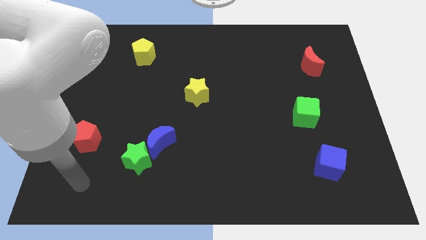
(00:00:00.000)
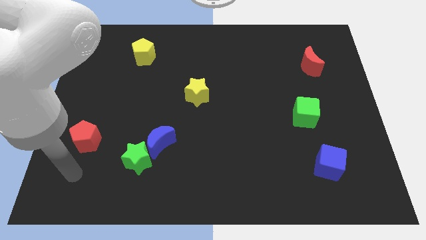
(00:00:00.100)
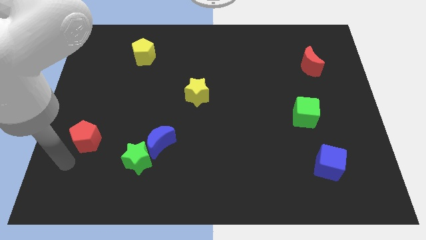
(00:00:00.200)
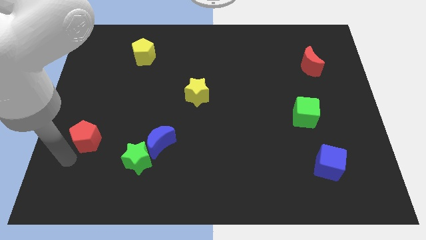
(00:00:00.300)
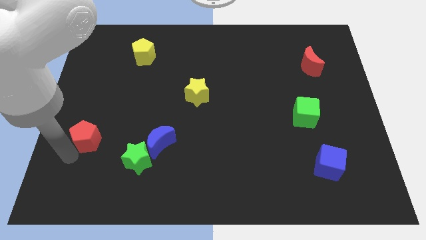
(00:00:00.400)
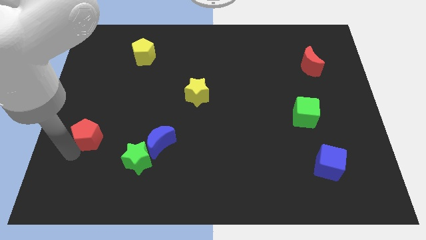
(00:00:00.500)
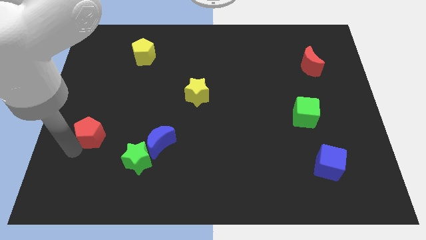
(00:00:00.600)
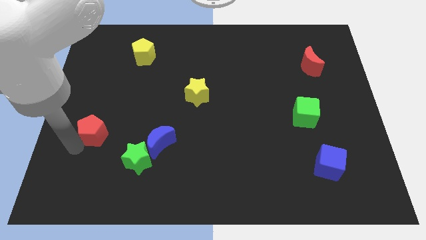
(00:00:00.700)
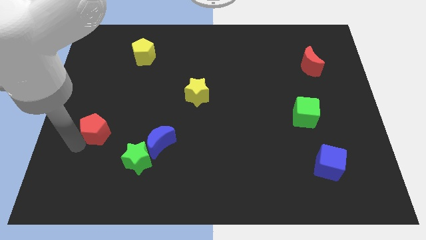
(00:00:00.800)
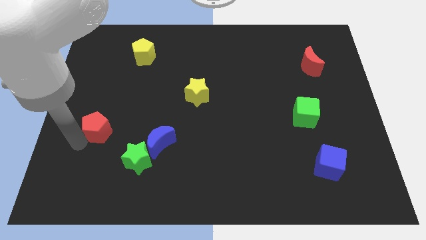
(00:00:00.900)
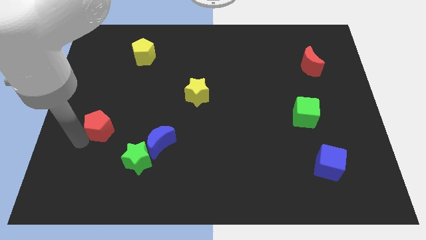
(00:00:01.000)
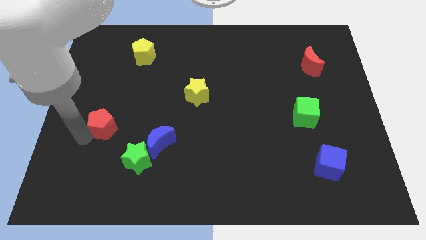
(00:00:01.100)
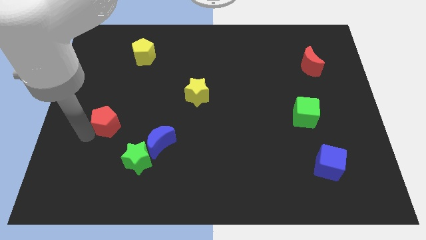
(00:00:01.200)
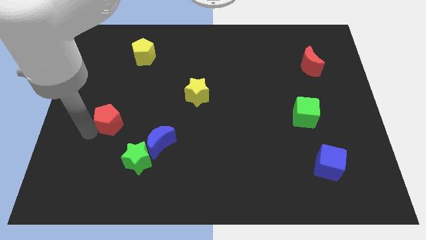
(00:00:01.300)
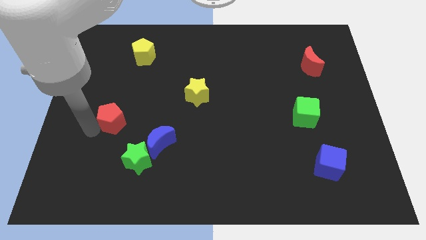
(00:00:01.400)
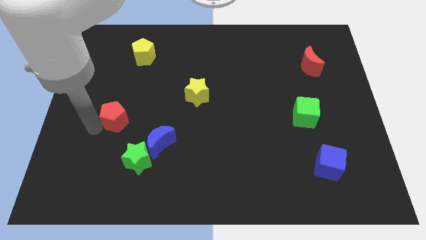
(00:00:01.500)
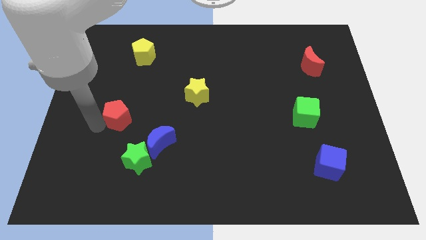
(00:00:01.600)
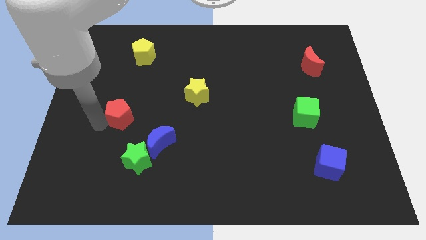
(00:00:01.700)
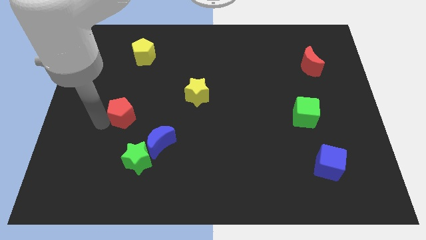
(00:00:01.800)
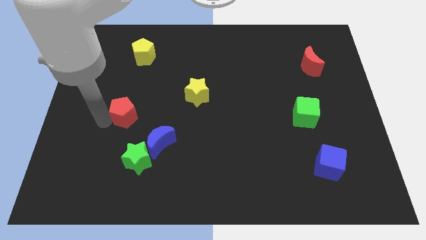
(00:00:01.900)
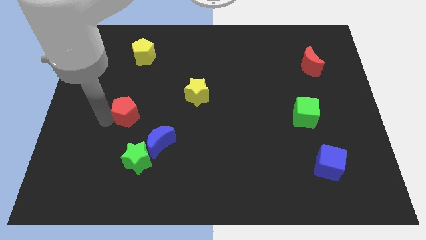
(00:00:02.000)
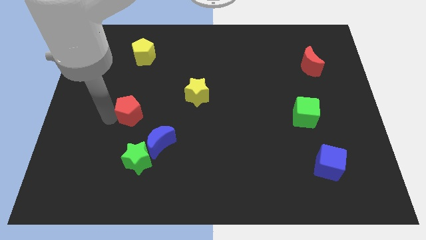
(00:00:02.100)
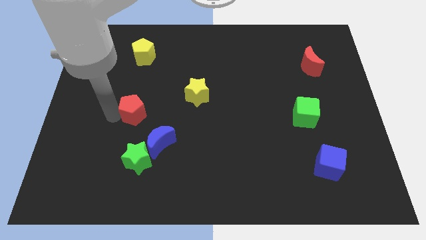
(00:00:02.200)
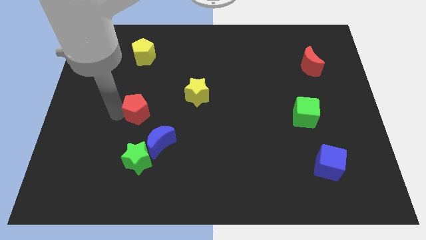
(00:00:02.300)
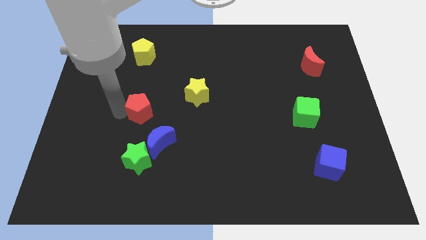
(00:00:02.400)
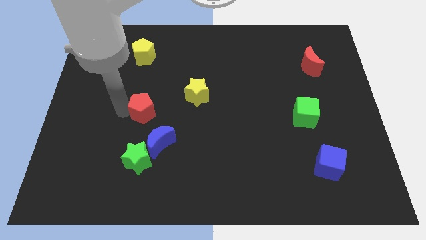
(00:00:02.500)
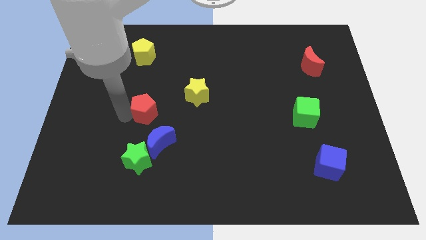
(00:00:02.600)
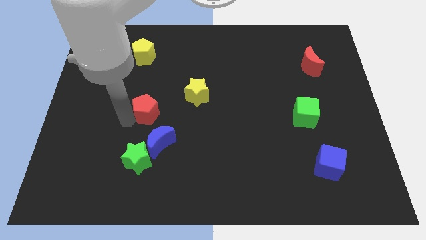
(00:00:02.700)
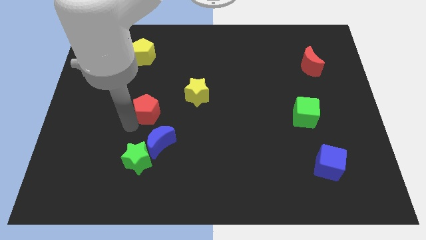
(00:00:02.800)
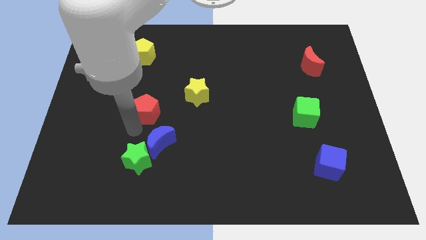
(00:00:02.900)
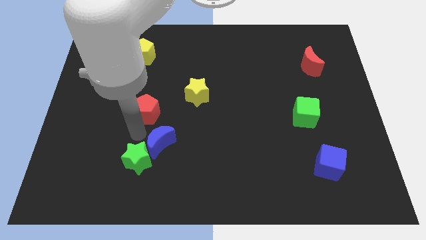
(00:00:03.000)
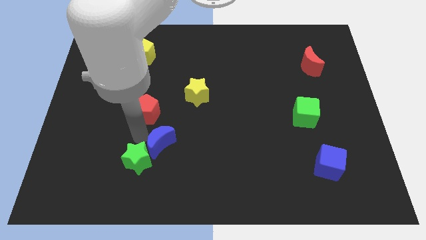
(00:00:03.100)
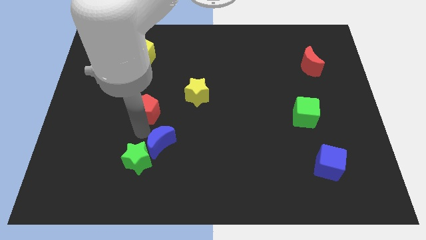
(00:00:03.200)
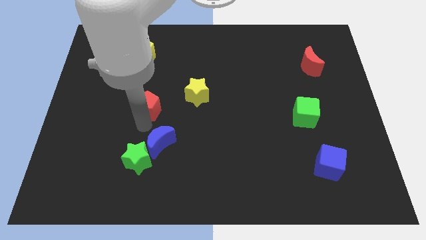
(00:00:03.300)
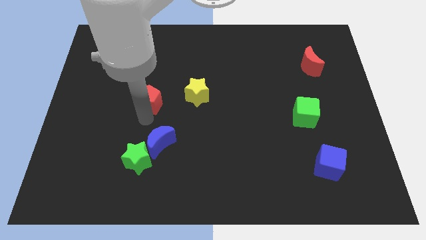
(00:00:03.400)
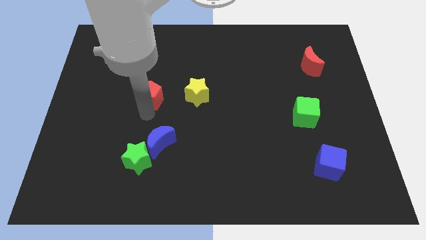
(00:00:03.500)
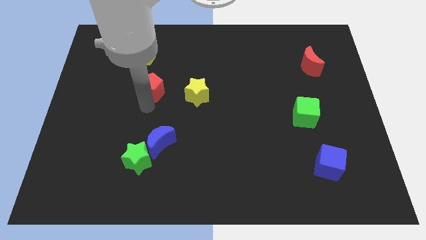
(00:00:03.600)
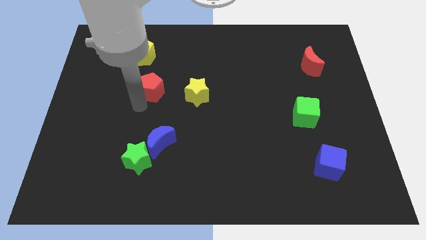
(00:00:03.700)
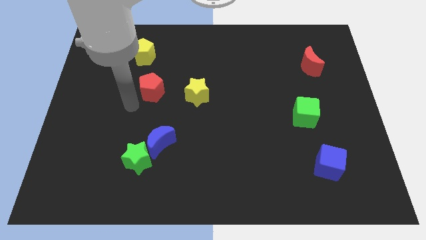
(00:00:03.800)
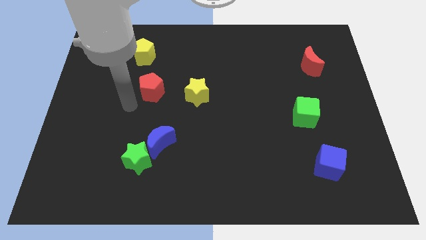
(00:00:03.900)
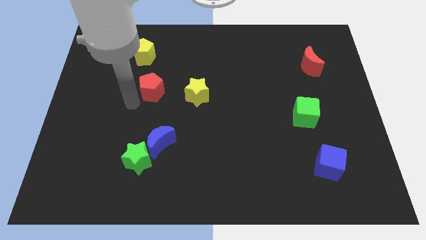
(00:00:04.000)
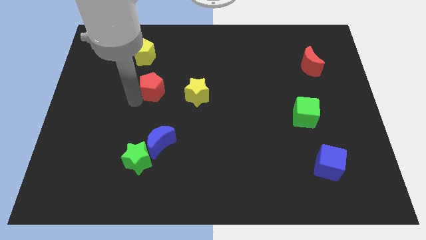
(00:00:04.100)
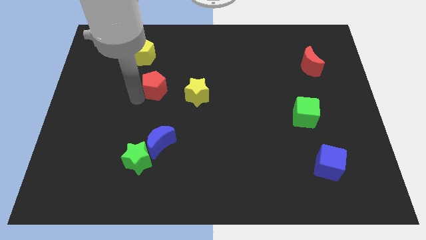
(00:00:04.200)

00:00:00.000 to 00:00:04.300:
push the red pentagon up and to the right diagonally

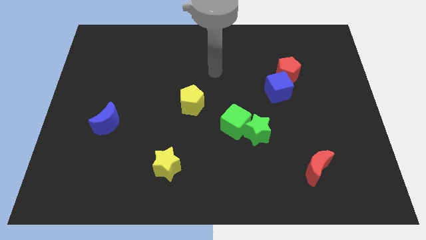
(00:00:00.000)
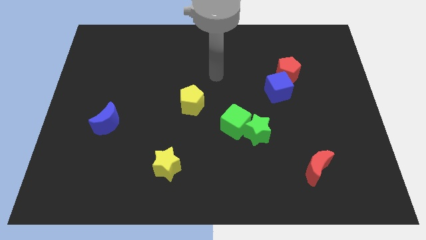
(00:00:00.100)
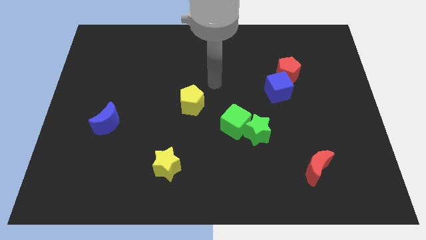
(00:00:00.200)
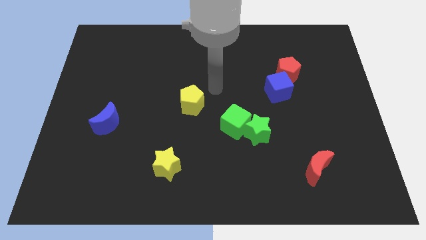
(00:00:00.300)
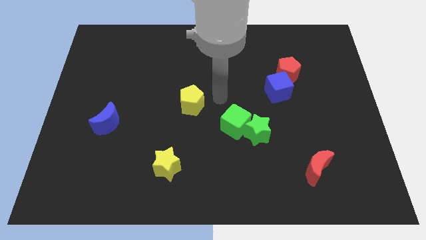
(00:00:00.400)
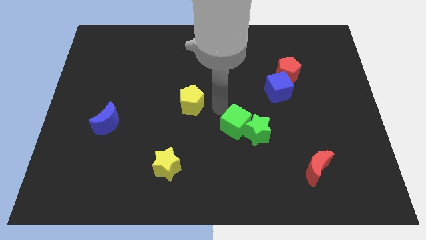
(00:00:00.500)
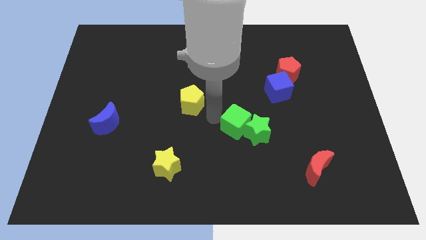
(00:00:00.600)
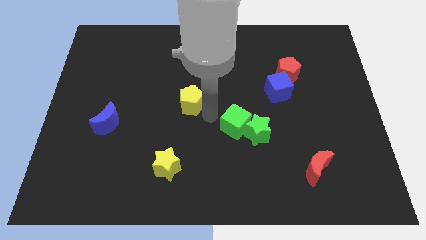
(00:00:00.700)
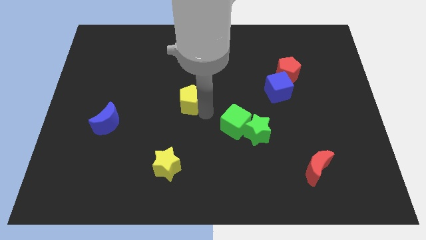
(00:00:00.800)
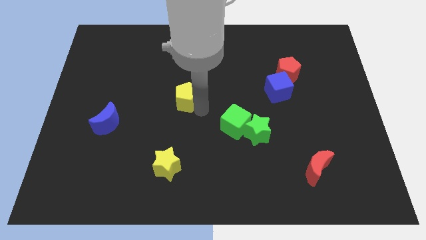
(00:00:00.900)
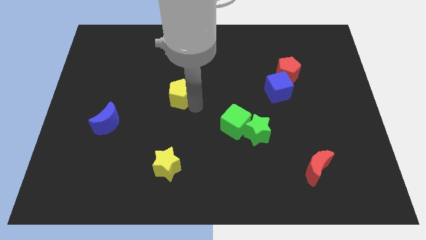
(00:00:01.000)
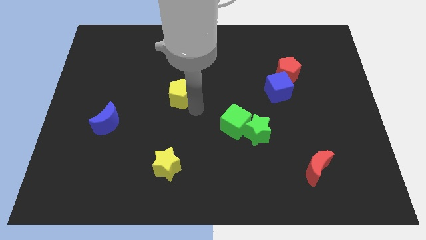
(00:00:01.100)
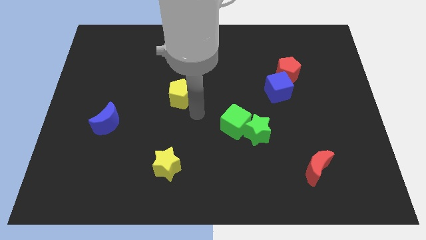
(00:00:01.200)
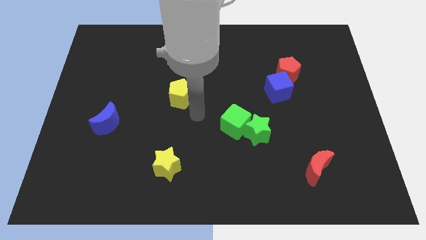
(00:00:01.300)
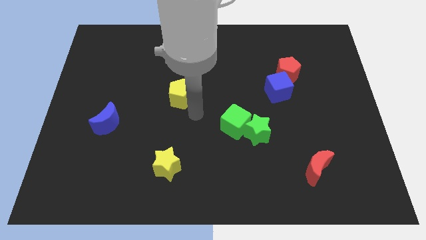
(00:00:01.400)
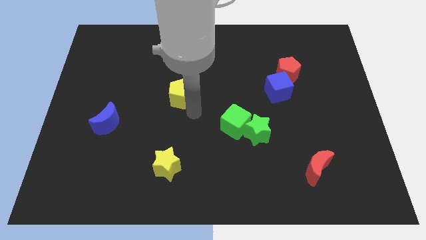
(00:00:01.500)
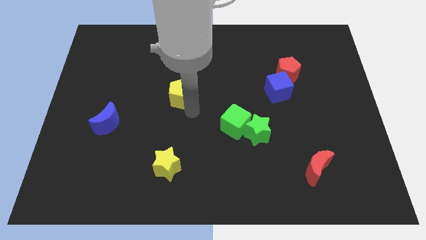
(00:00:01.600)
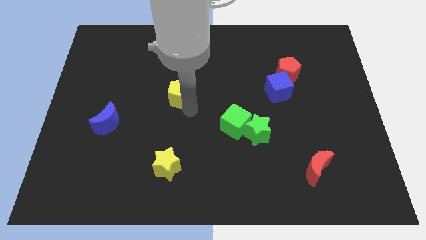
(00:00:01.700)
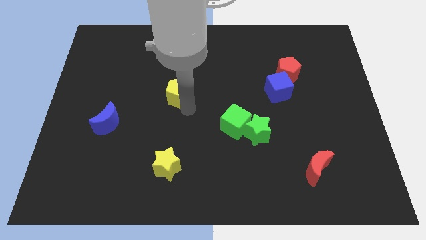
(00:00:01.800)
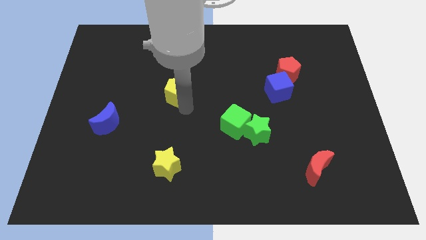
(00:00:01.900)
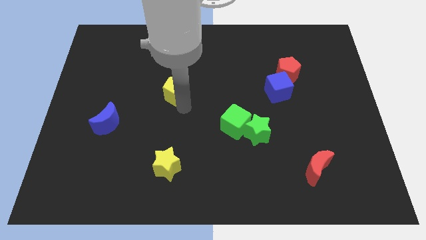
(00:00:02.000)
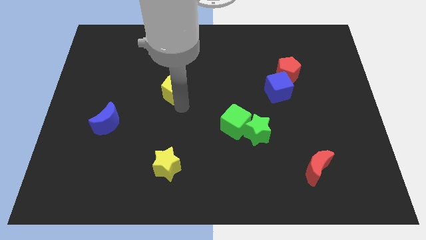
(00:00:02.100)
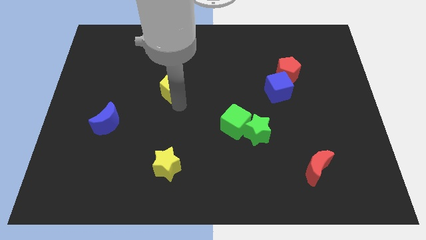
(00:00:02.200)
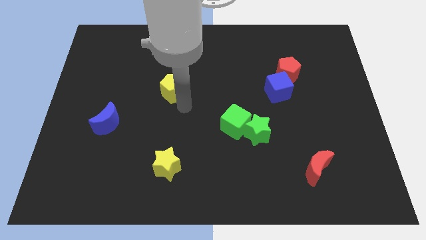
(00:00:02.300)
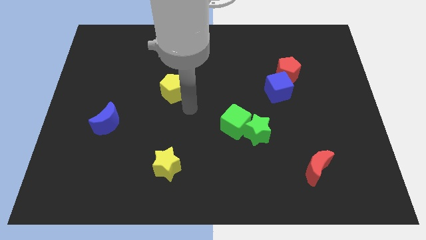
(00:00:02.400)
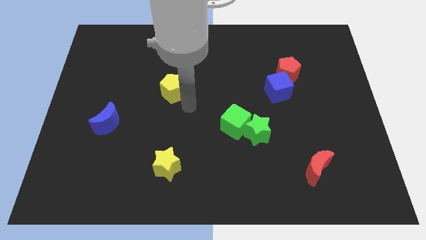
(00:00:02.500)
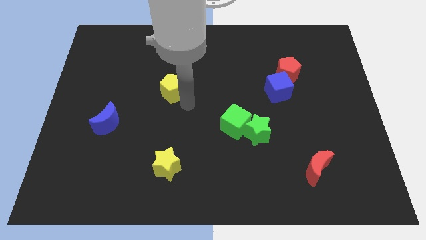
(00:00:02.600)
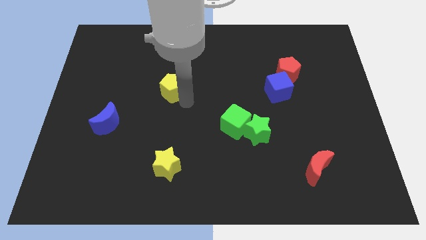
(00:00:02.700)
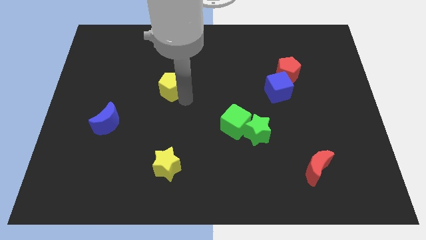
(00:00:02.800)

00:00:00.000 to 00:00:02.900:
move the yellow pentagon diagonally up and to the left a bit

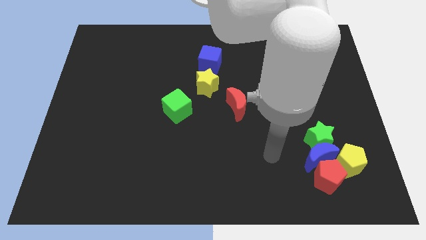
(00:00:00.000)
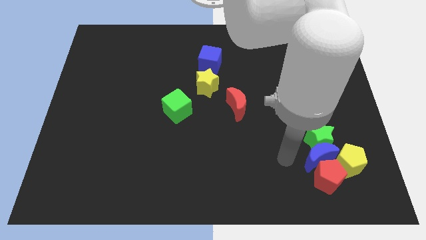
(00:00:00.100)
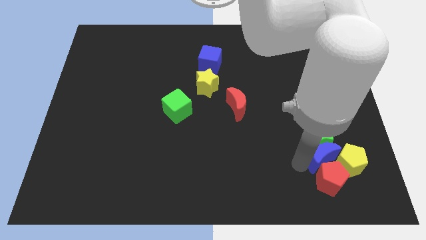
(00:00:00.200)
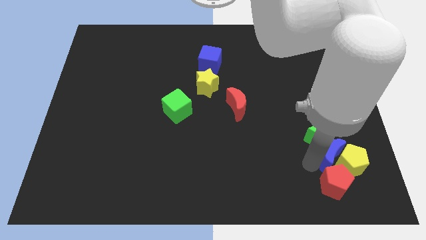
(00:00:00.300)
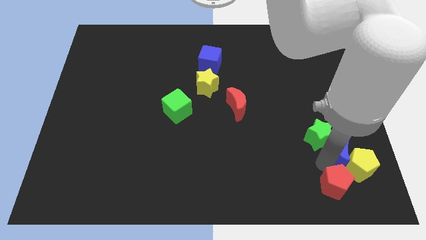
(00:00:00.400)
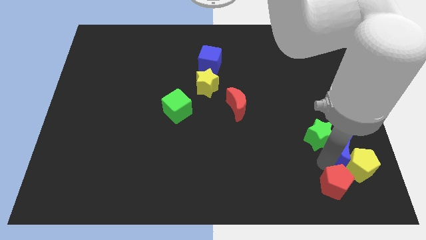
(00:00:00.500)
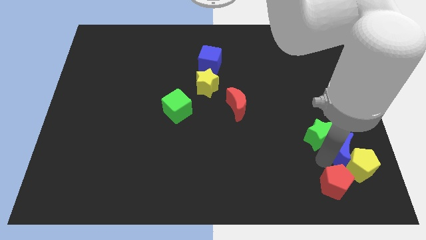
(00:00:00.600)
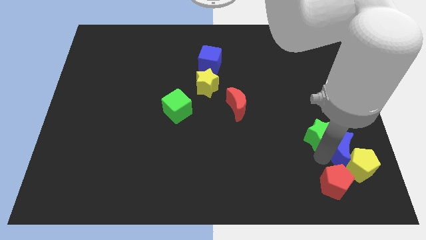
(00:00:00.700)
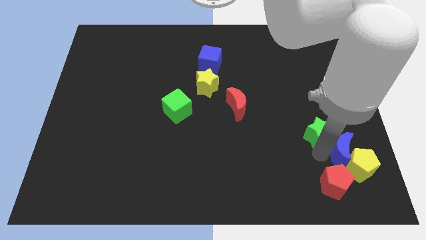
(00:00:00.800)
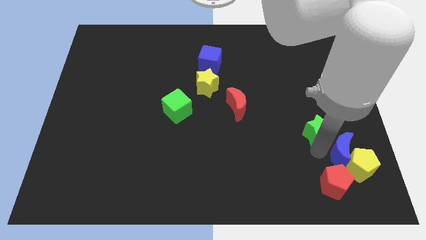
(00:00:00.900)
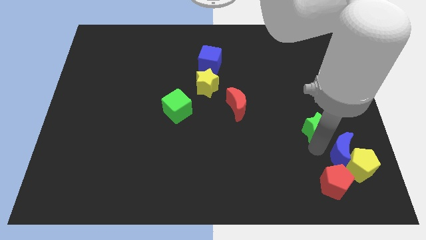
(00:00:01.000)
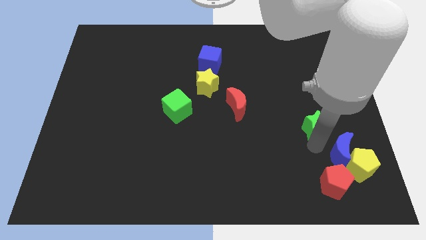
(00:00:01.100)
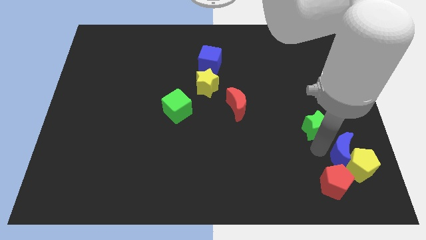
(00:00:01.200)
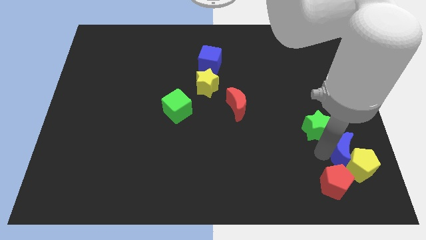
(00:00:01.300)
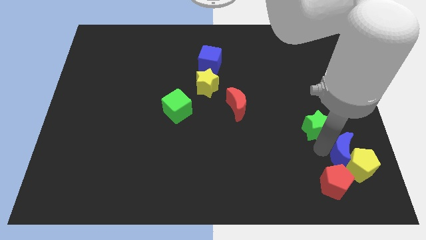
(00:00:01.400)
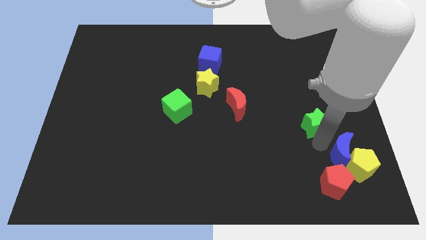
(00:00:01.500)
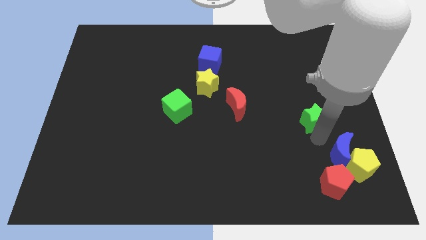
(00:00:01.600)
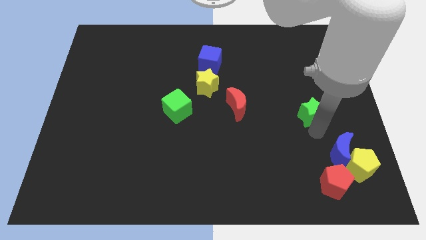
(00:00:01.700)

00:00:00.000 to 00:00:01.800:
slide the green star up slightly
